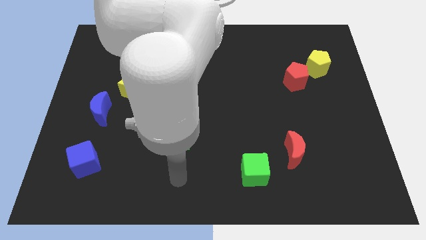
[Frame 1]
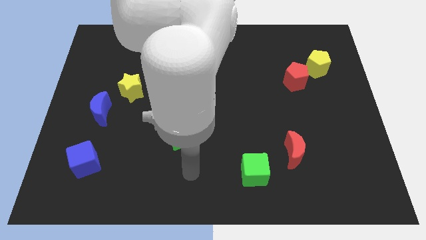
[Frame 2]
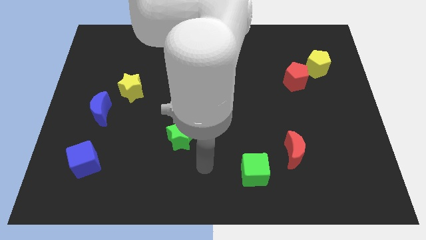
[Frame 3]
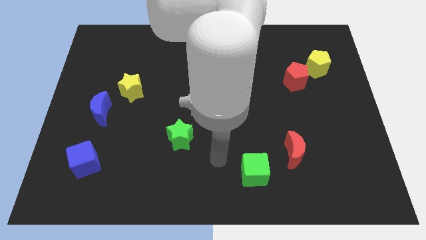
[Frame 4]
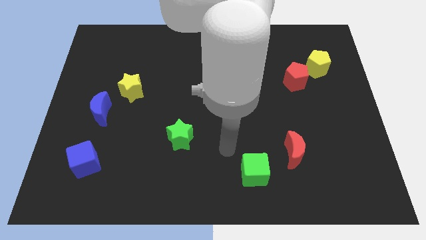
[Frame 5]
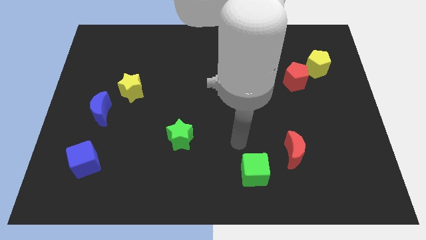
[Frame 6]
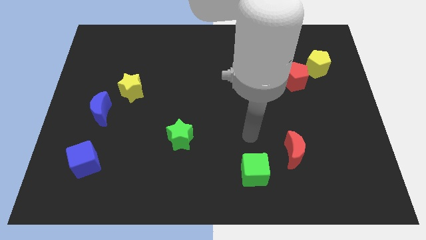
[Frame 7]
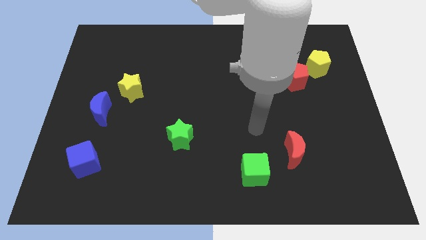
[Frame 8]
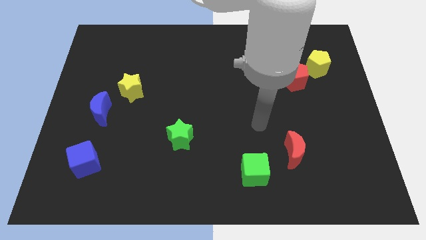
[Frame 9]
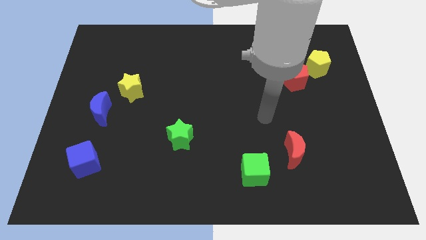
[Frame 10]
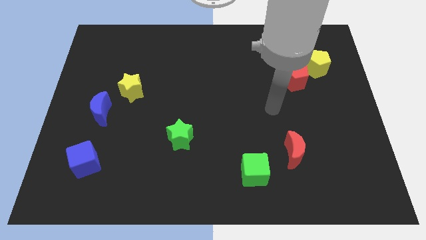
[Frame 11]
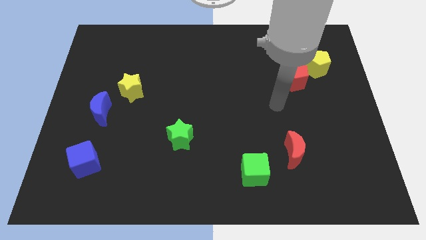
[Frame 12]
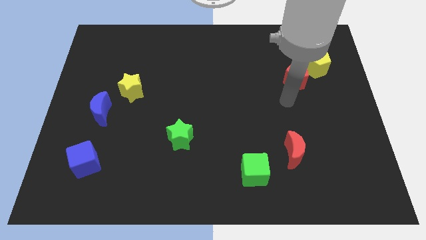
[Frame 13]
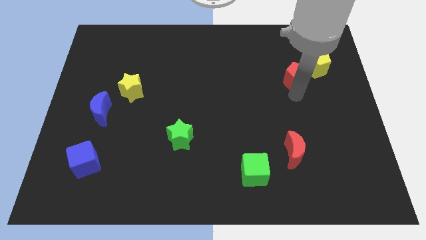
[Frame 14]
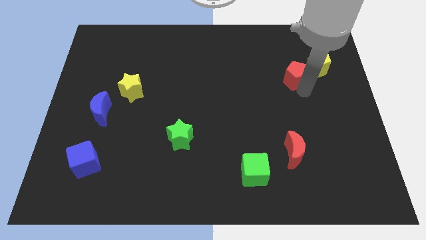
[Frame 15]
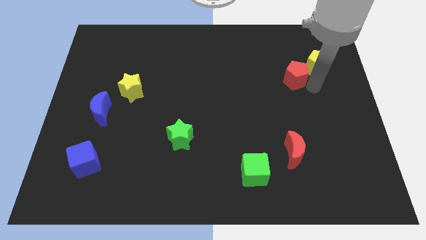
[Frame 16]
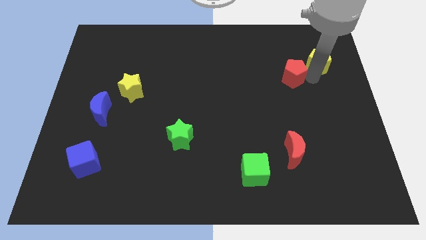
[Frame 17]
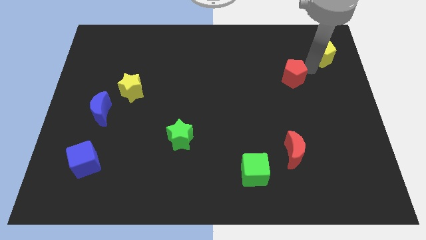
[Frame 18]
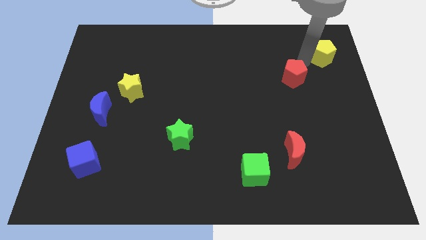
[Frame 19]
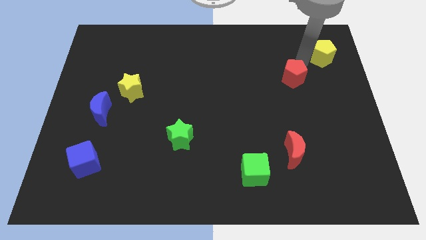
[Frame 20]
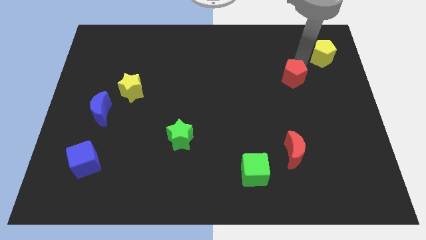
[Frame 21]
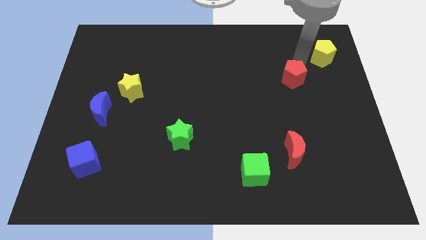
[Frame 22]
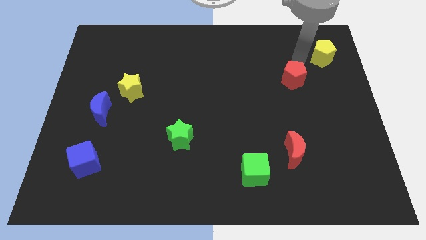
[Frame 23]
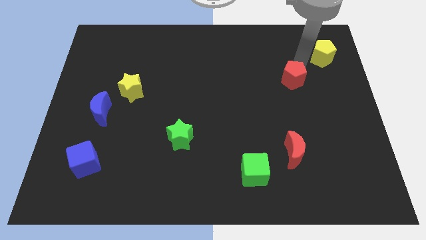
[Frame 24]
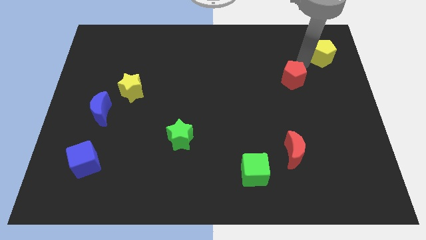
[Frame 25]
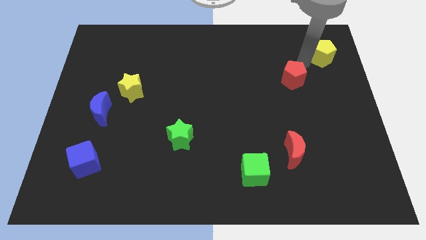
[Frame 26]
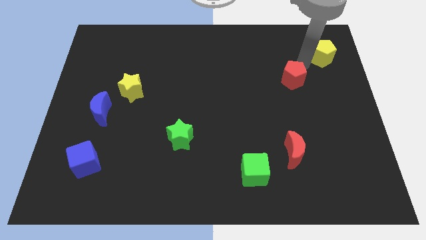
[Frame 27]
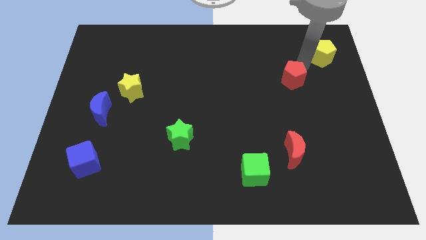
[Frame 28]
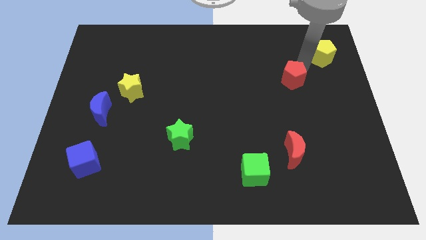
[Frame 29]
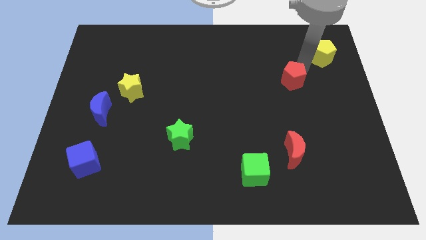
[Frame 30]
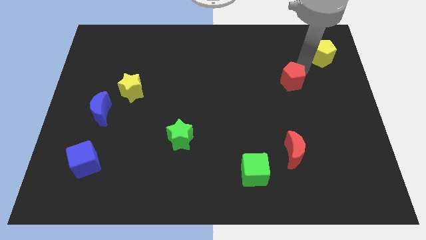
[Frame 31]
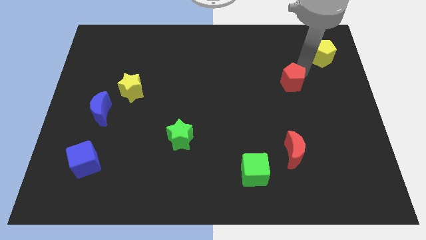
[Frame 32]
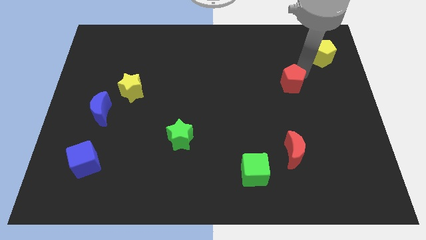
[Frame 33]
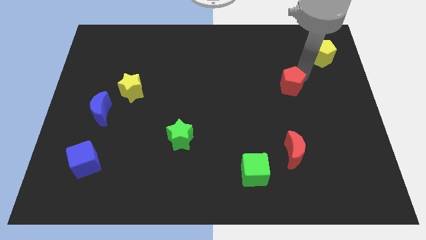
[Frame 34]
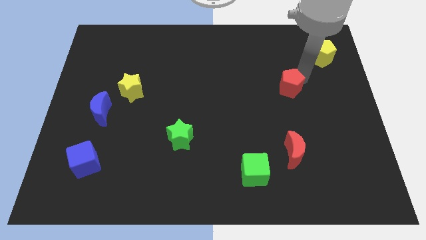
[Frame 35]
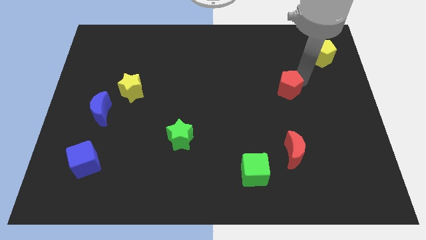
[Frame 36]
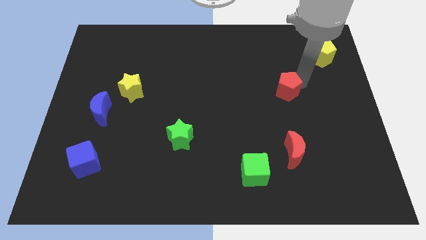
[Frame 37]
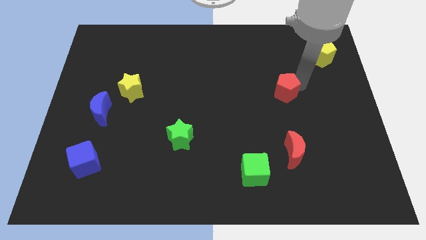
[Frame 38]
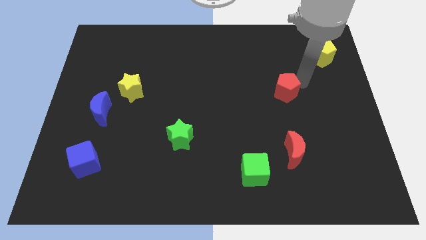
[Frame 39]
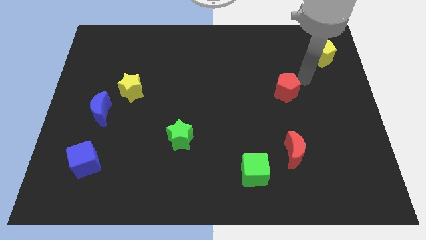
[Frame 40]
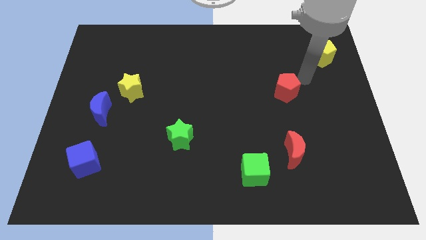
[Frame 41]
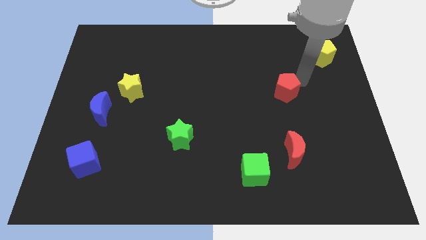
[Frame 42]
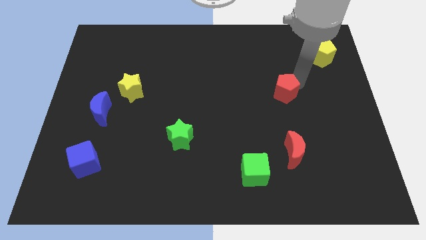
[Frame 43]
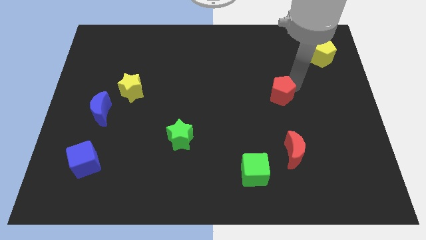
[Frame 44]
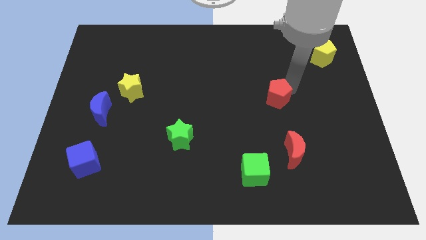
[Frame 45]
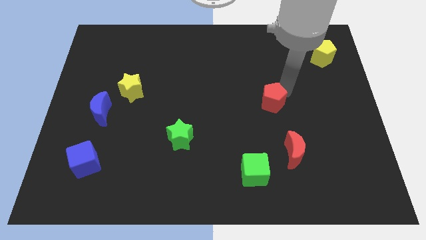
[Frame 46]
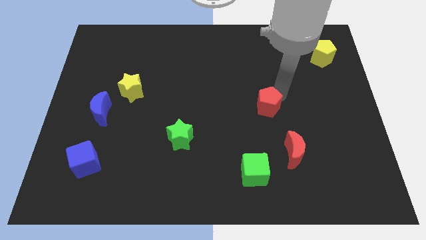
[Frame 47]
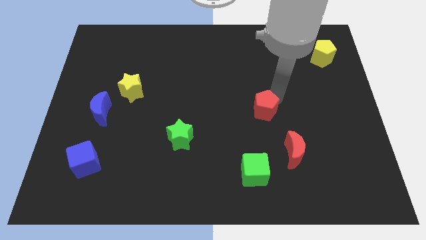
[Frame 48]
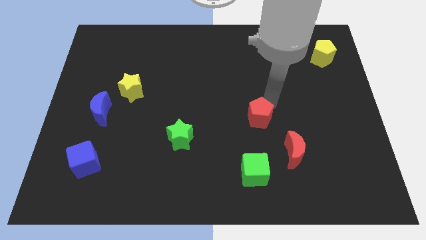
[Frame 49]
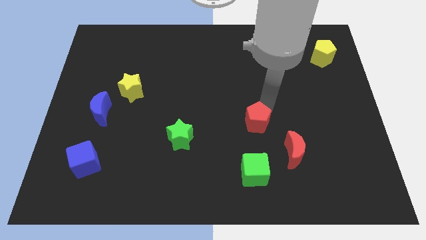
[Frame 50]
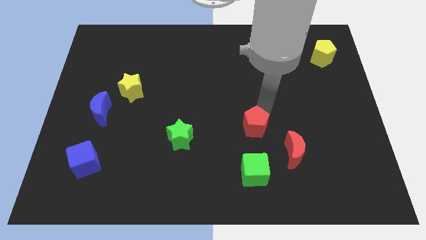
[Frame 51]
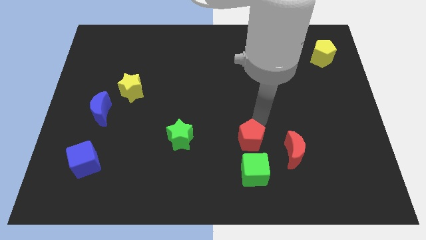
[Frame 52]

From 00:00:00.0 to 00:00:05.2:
move the red pentagon down and left diagonally

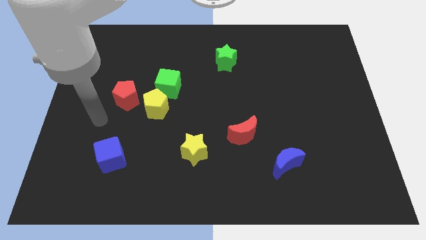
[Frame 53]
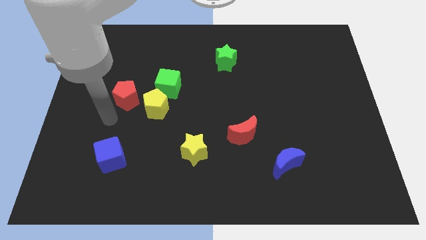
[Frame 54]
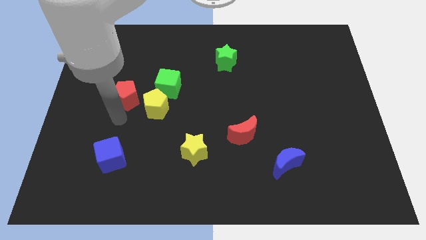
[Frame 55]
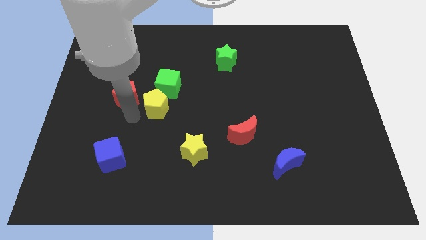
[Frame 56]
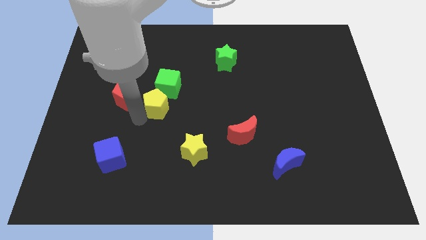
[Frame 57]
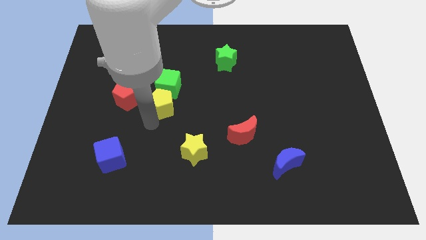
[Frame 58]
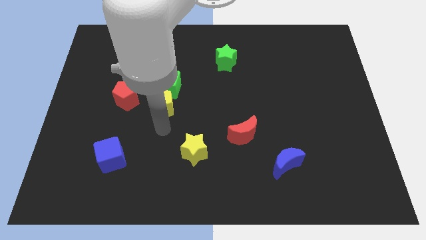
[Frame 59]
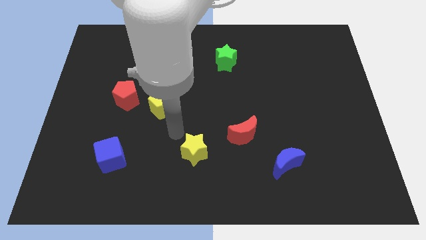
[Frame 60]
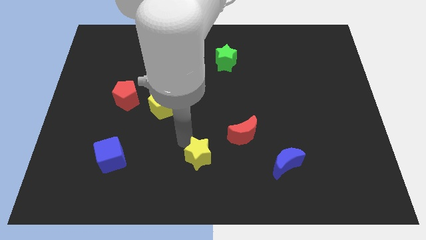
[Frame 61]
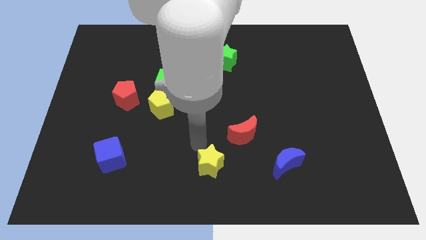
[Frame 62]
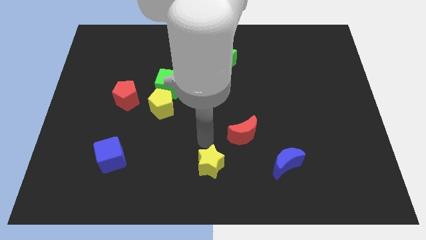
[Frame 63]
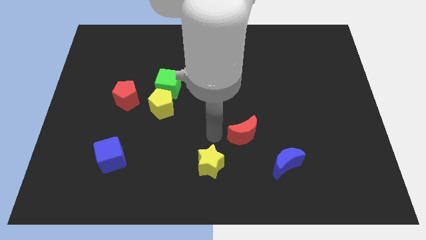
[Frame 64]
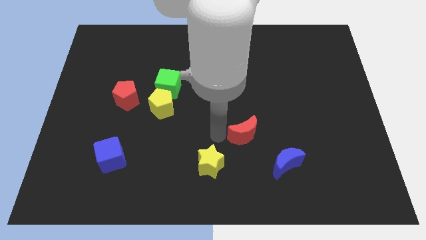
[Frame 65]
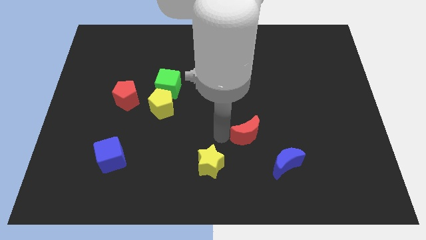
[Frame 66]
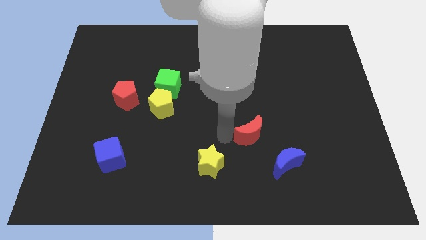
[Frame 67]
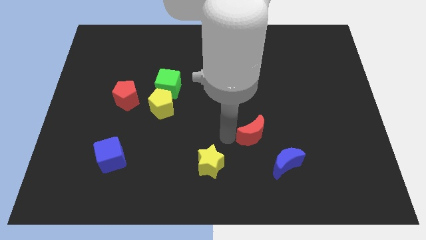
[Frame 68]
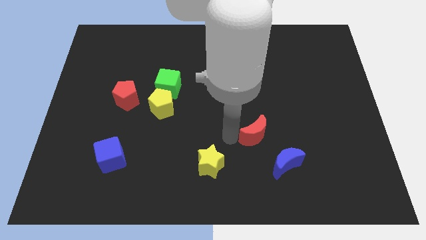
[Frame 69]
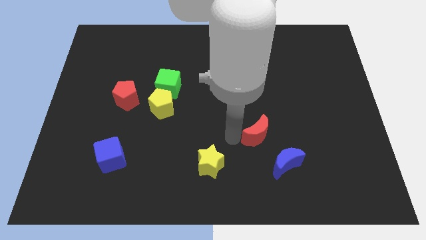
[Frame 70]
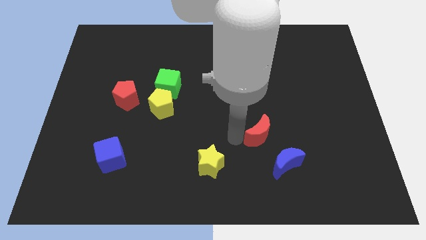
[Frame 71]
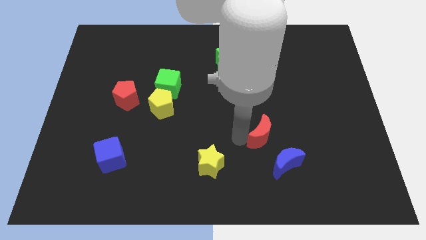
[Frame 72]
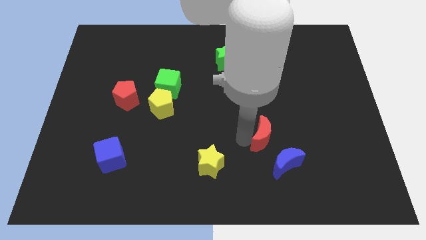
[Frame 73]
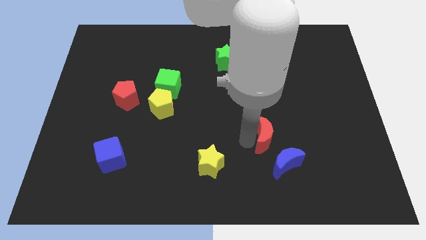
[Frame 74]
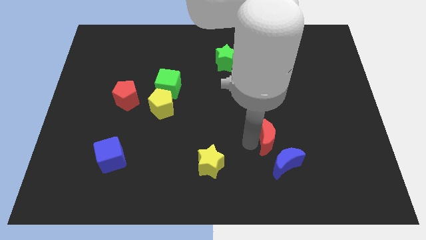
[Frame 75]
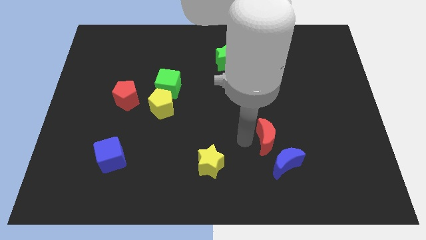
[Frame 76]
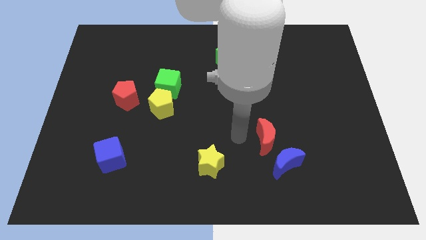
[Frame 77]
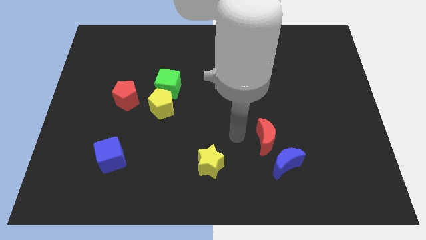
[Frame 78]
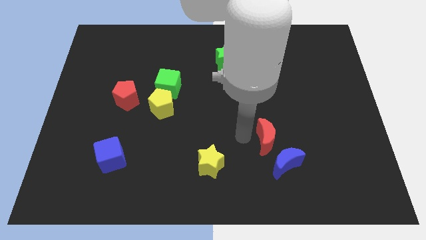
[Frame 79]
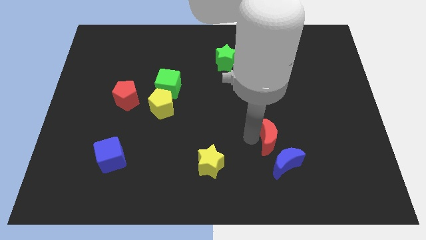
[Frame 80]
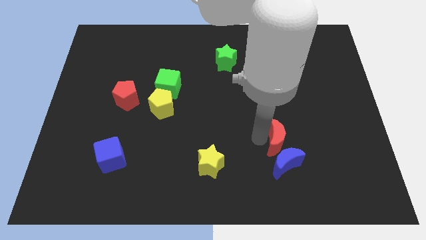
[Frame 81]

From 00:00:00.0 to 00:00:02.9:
move the red moon a bit right
